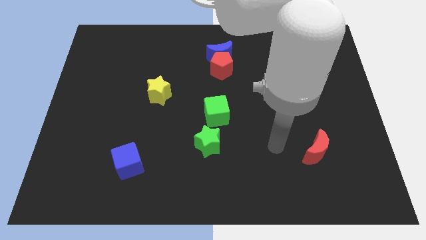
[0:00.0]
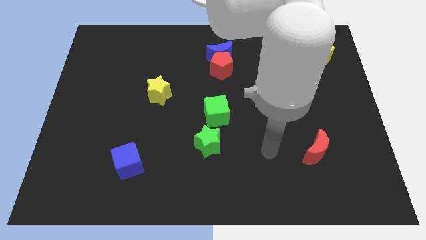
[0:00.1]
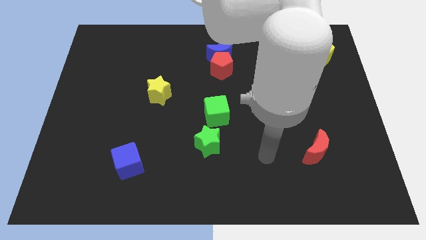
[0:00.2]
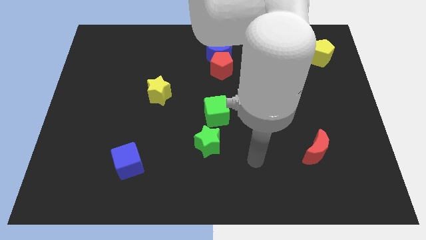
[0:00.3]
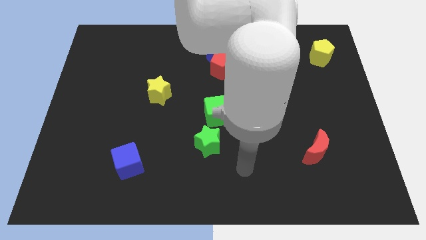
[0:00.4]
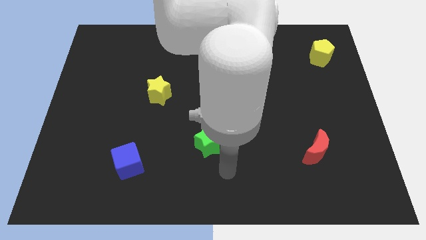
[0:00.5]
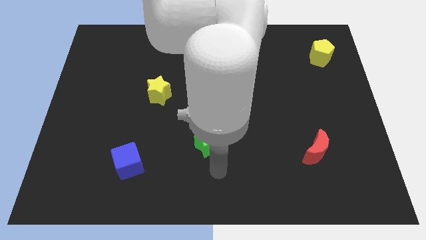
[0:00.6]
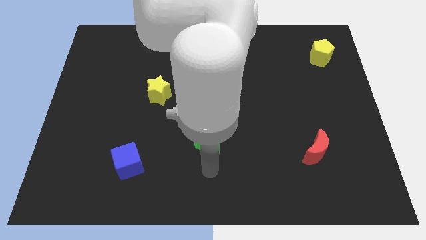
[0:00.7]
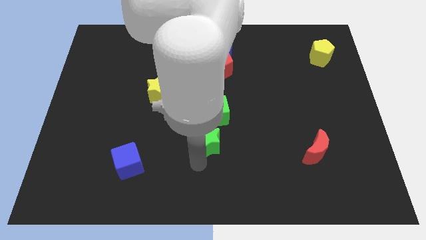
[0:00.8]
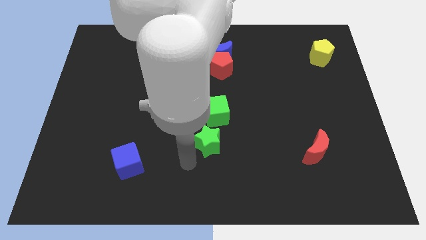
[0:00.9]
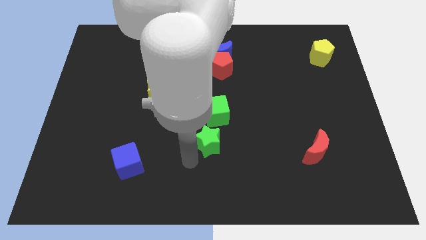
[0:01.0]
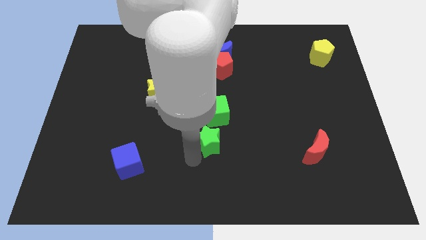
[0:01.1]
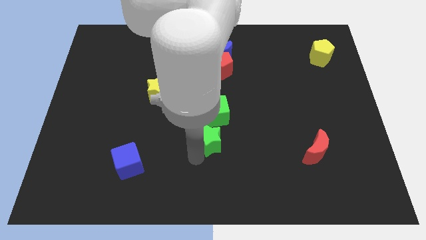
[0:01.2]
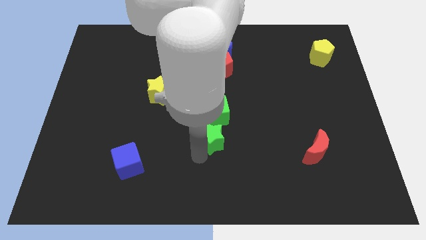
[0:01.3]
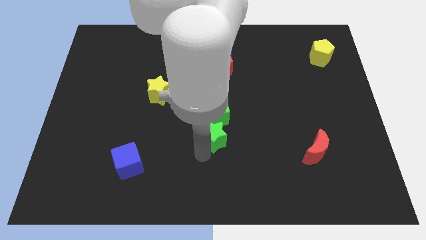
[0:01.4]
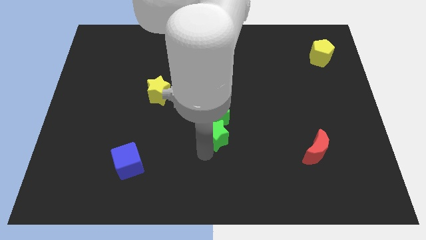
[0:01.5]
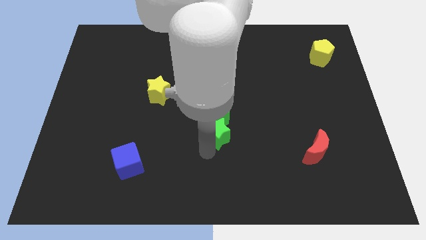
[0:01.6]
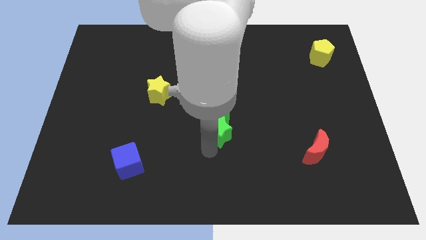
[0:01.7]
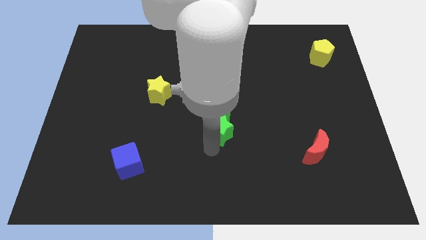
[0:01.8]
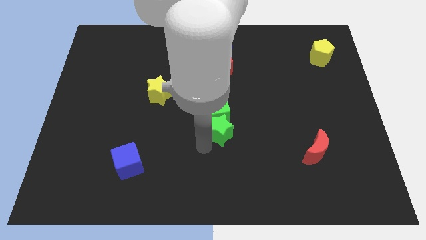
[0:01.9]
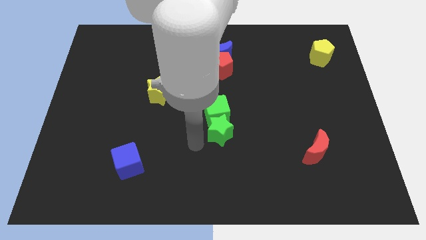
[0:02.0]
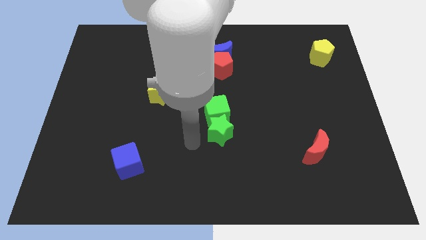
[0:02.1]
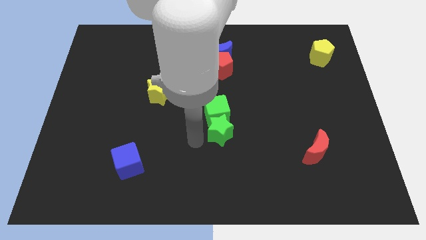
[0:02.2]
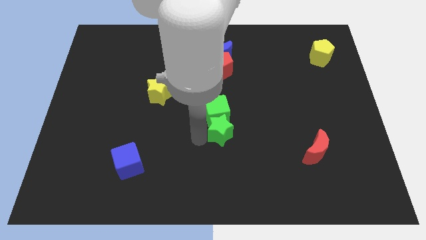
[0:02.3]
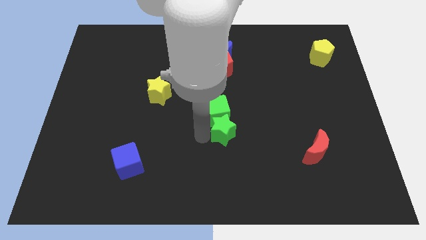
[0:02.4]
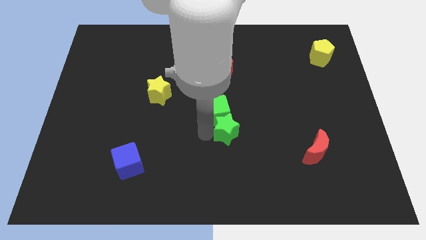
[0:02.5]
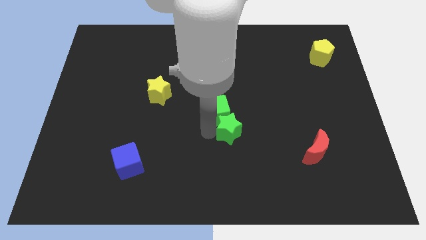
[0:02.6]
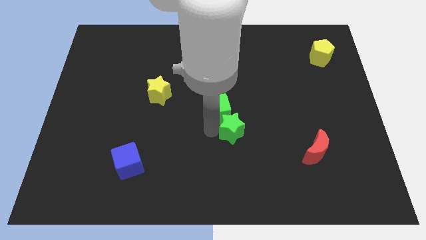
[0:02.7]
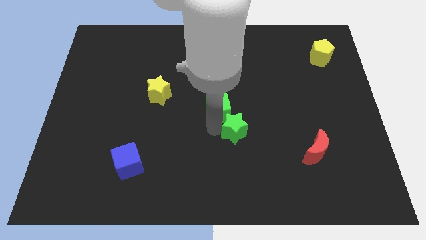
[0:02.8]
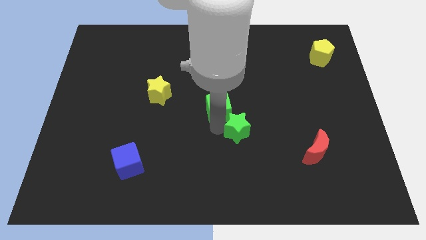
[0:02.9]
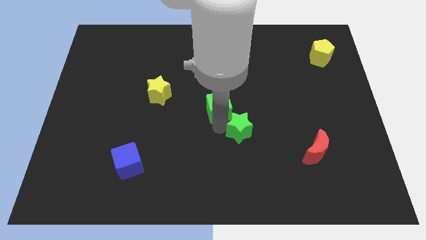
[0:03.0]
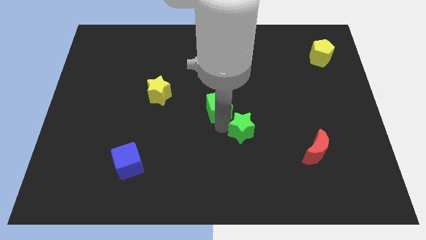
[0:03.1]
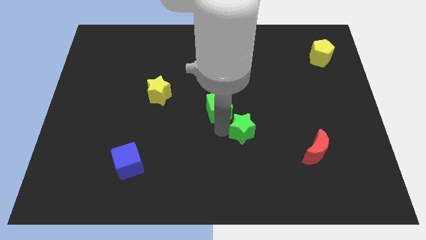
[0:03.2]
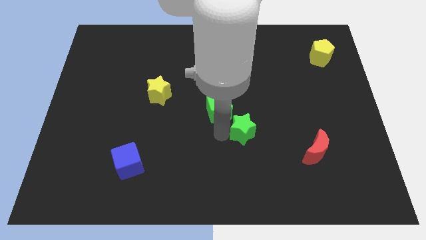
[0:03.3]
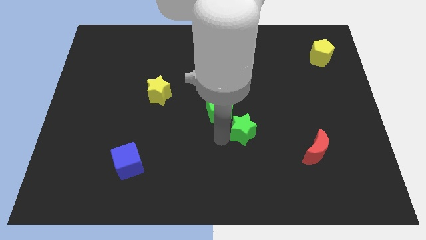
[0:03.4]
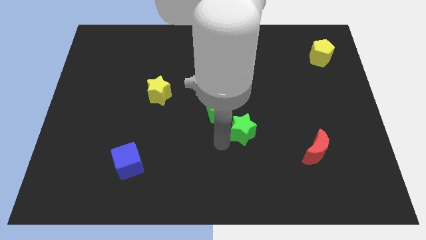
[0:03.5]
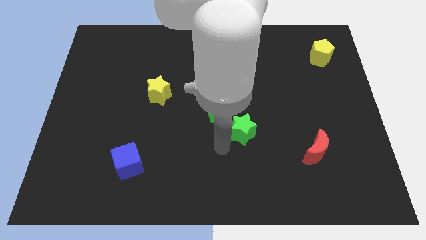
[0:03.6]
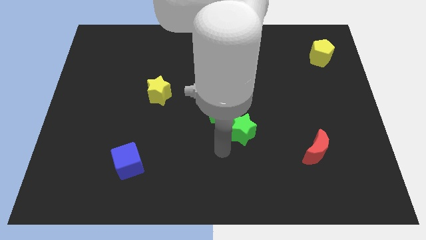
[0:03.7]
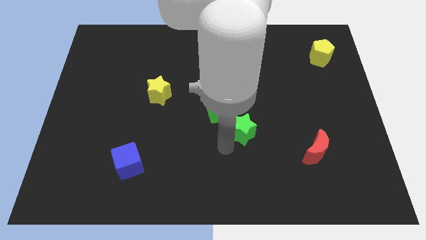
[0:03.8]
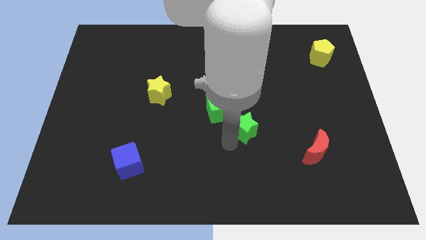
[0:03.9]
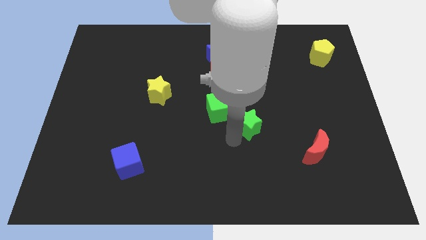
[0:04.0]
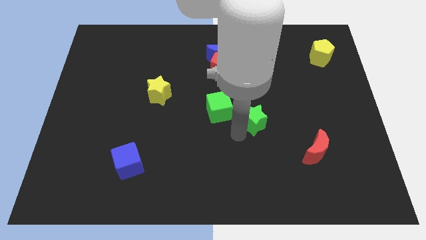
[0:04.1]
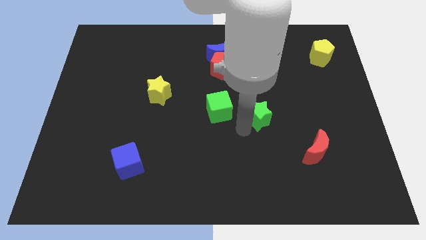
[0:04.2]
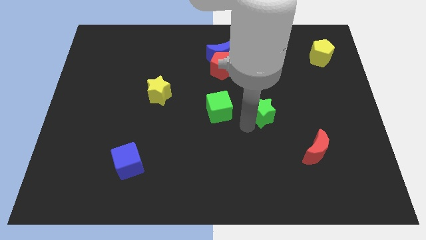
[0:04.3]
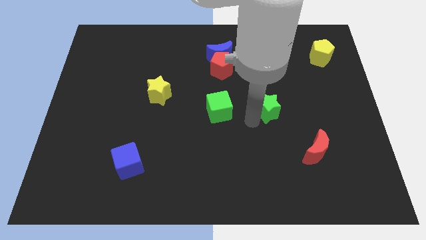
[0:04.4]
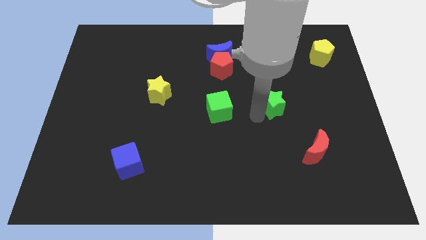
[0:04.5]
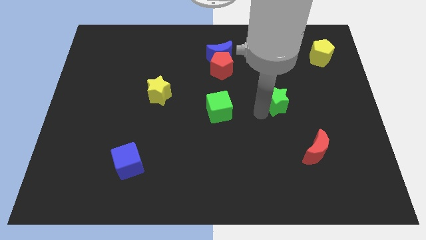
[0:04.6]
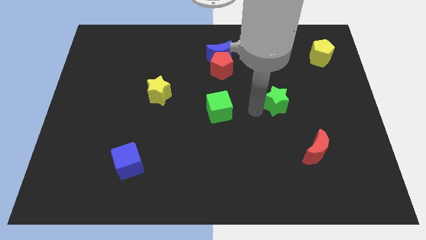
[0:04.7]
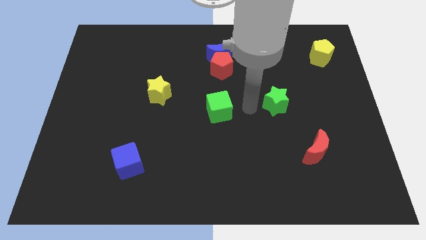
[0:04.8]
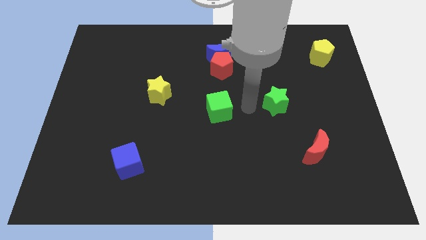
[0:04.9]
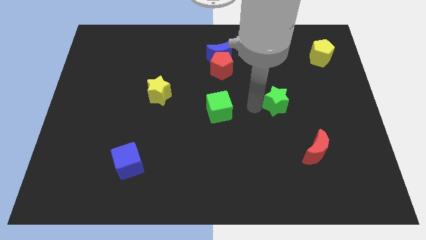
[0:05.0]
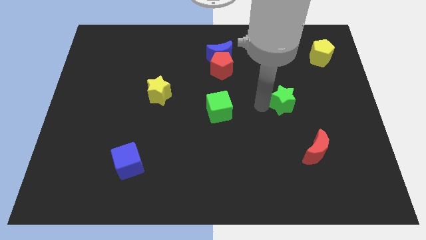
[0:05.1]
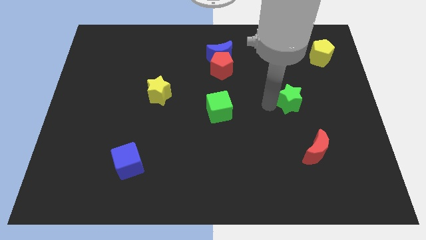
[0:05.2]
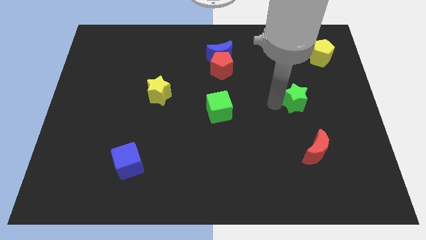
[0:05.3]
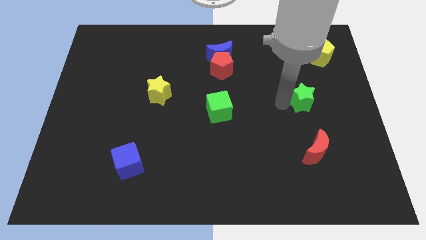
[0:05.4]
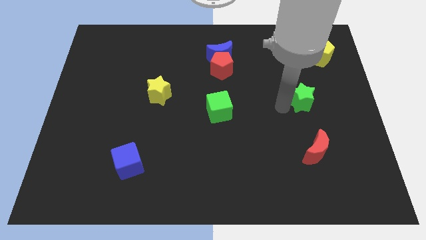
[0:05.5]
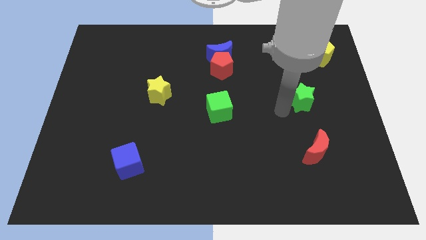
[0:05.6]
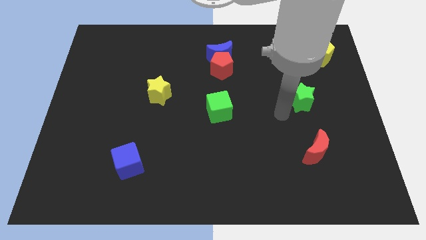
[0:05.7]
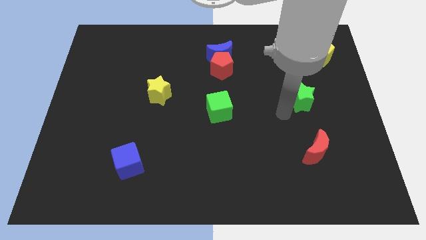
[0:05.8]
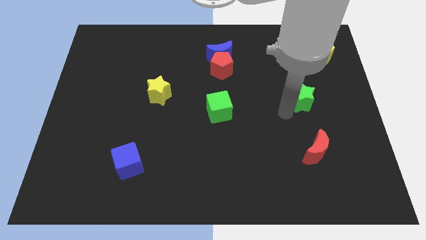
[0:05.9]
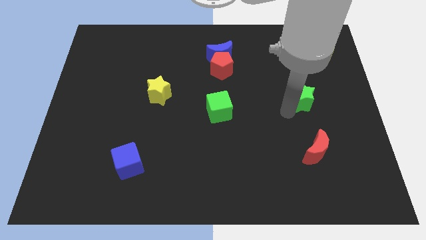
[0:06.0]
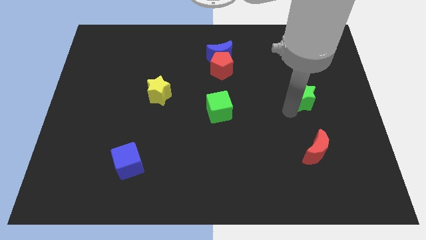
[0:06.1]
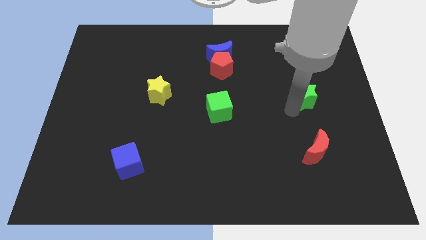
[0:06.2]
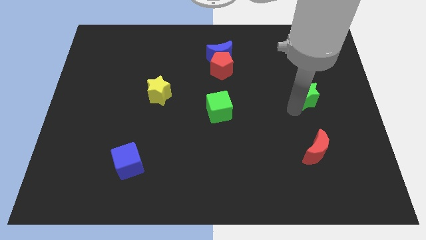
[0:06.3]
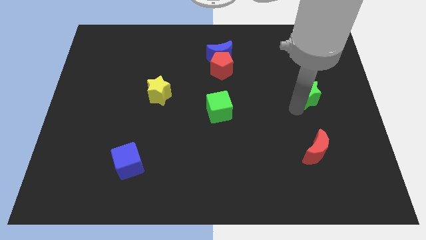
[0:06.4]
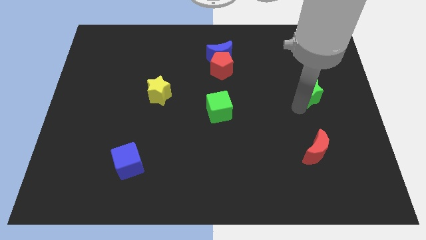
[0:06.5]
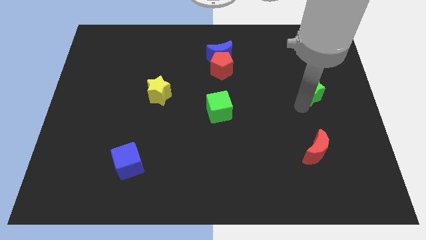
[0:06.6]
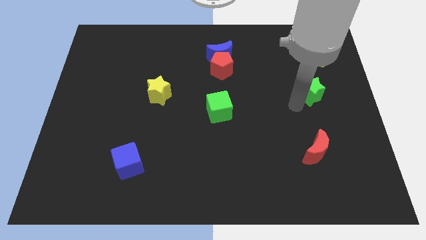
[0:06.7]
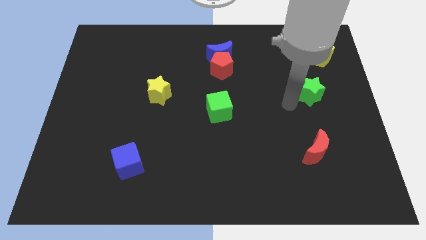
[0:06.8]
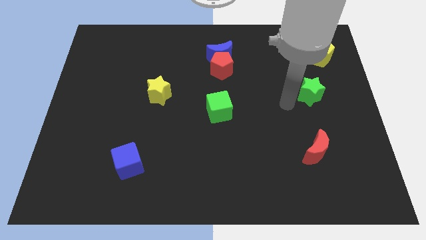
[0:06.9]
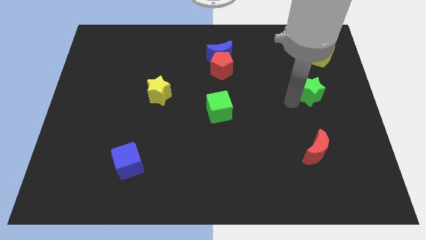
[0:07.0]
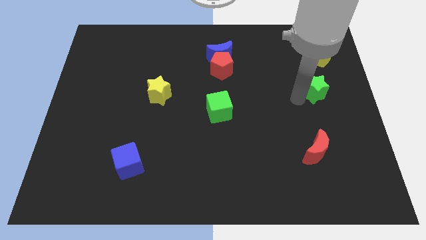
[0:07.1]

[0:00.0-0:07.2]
put the green star to the bottom side of the yellow pentagon
